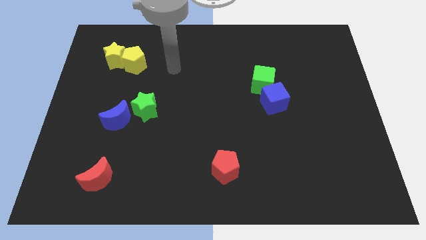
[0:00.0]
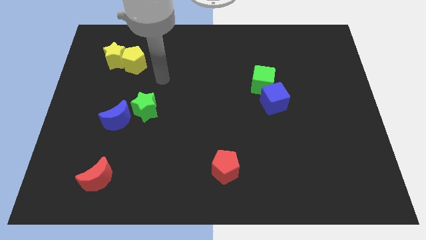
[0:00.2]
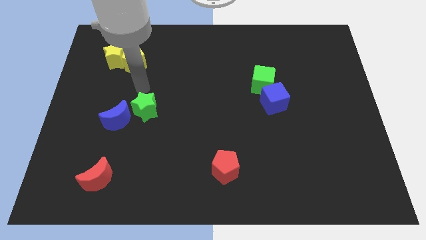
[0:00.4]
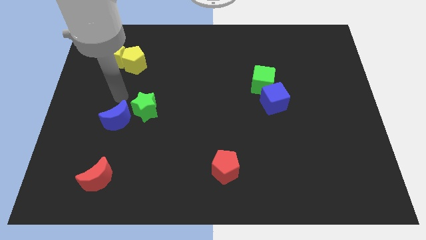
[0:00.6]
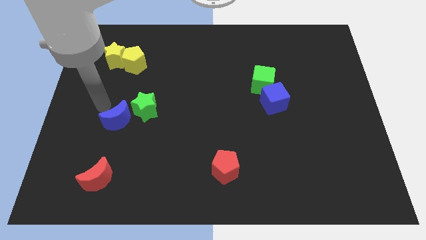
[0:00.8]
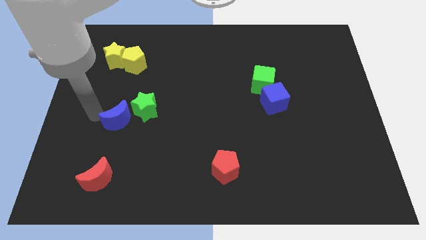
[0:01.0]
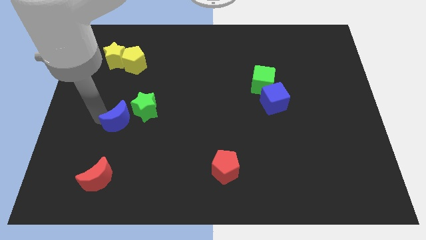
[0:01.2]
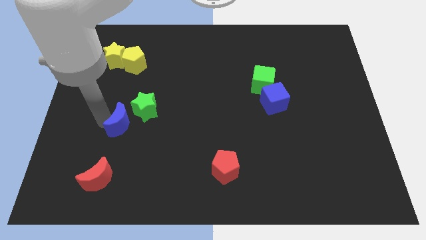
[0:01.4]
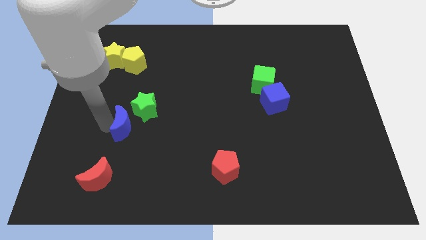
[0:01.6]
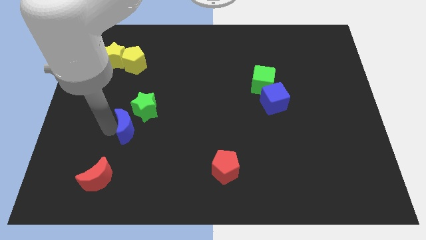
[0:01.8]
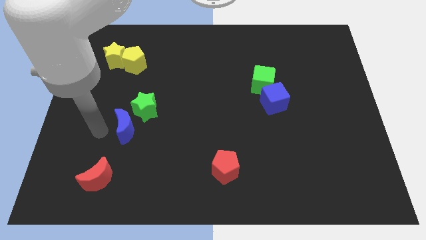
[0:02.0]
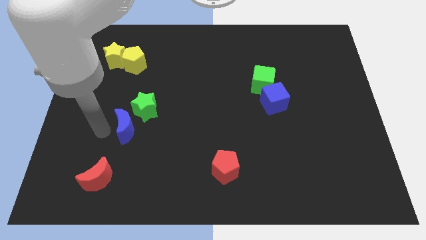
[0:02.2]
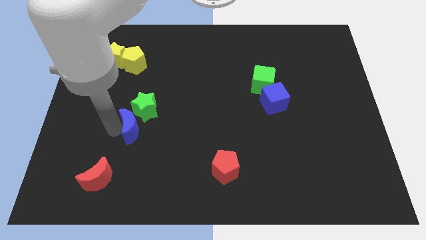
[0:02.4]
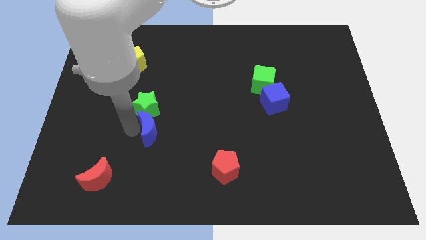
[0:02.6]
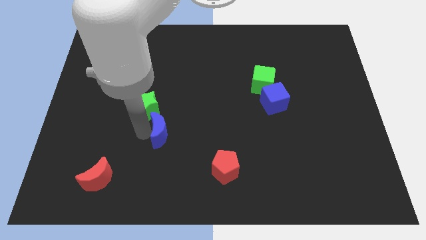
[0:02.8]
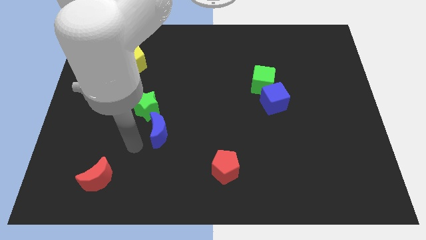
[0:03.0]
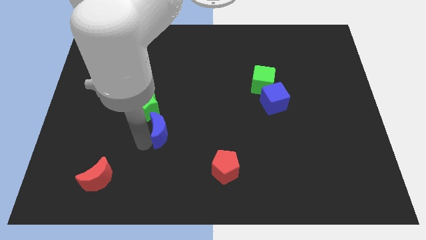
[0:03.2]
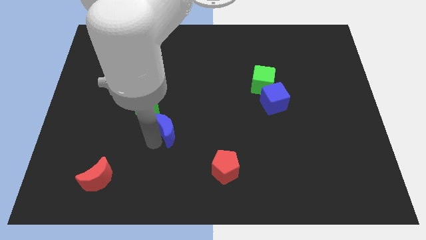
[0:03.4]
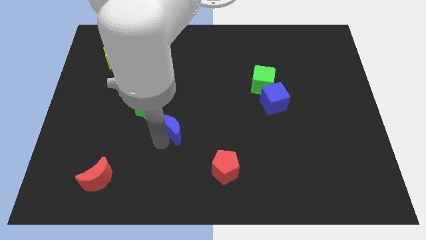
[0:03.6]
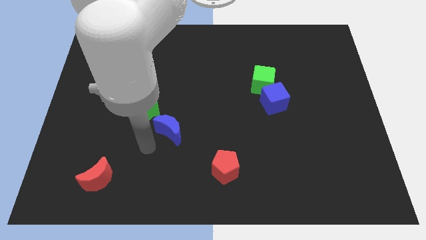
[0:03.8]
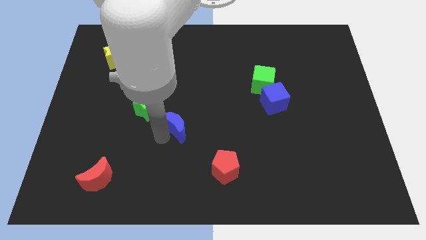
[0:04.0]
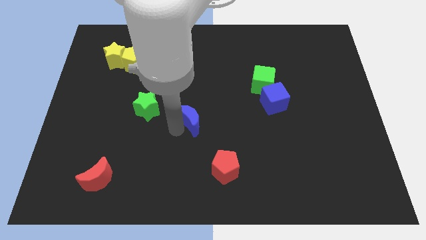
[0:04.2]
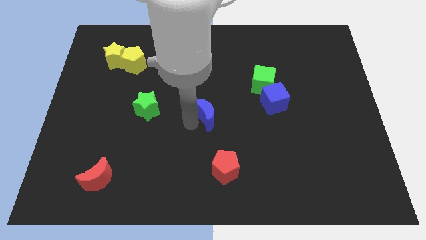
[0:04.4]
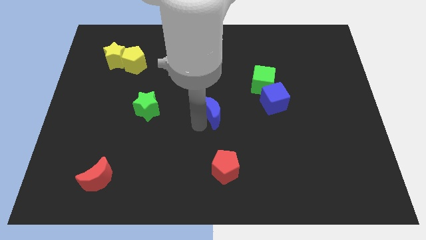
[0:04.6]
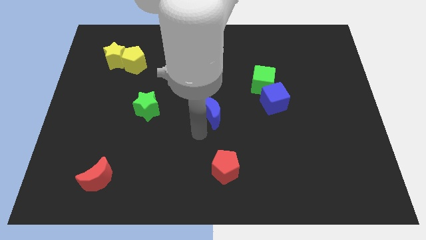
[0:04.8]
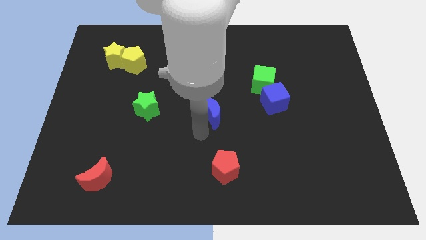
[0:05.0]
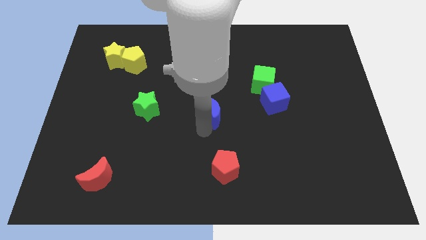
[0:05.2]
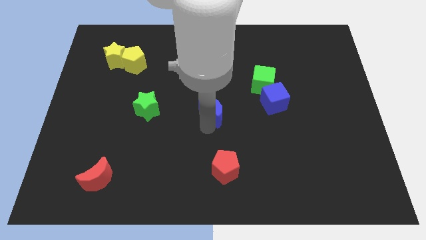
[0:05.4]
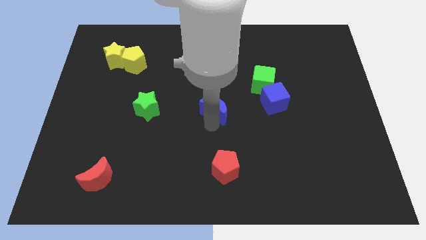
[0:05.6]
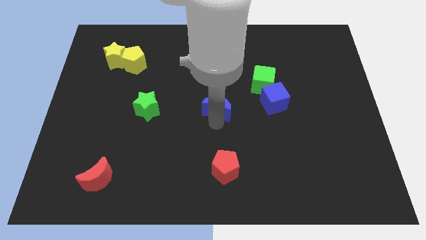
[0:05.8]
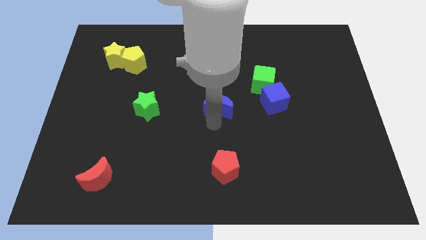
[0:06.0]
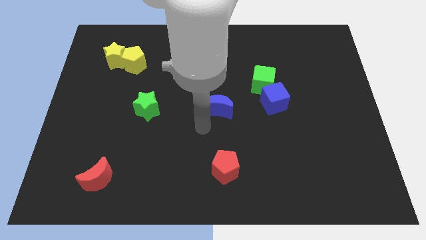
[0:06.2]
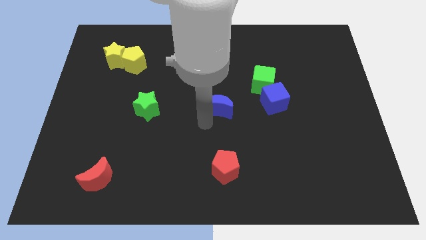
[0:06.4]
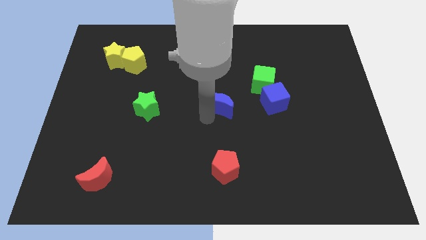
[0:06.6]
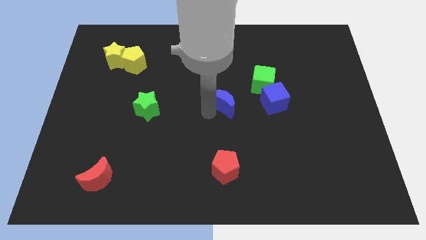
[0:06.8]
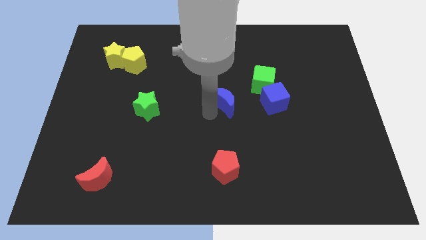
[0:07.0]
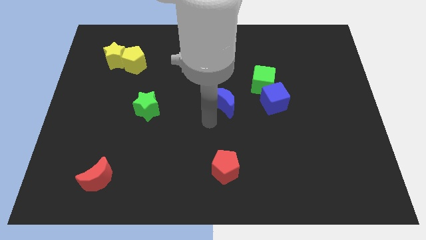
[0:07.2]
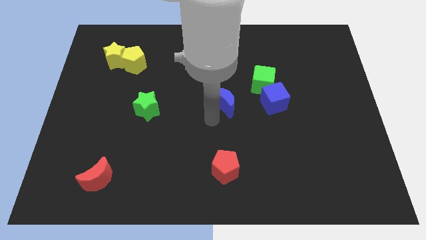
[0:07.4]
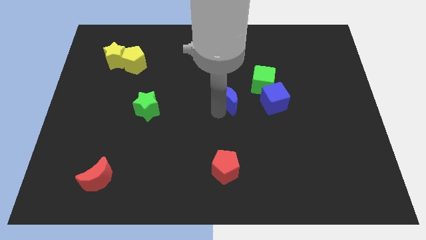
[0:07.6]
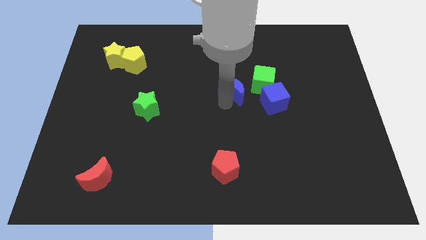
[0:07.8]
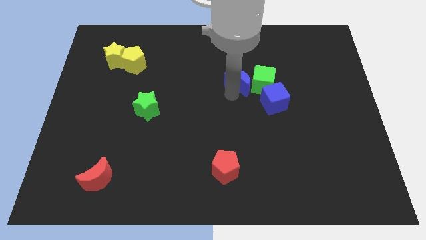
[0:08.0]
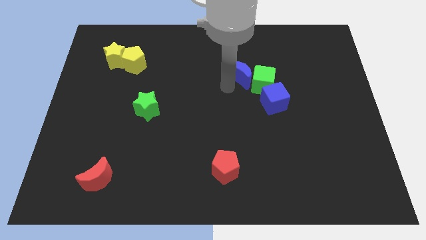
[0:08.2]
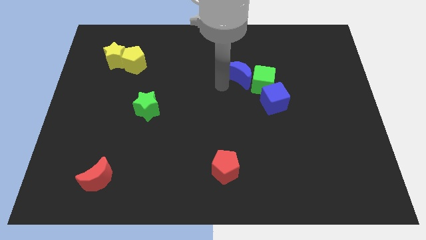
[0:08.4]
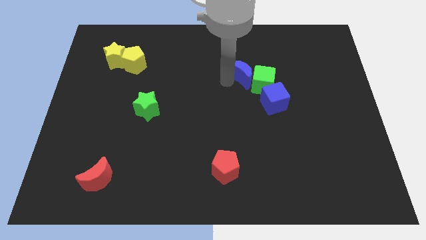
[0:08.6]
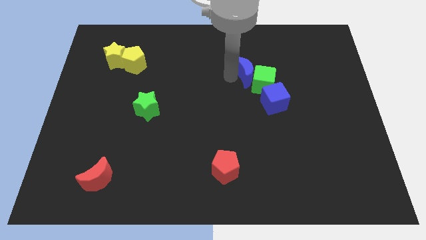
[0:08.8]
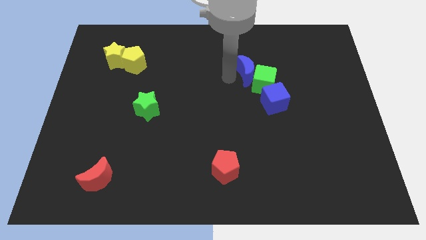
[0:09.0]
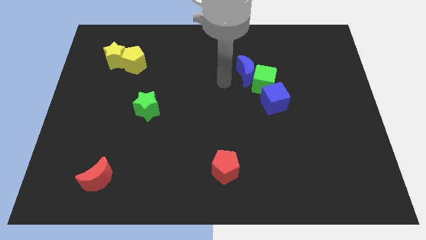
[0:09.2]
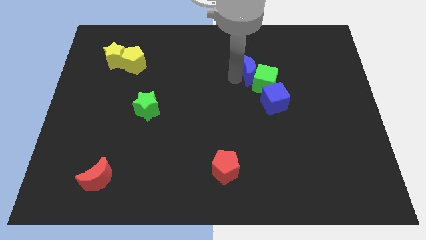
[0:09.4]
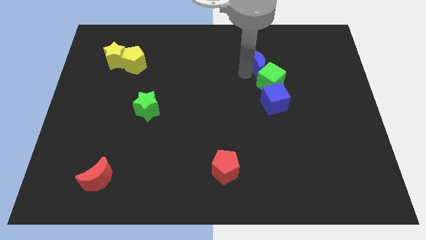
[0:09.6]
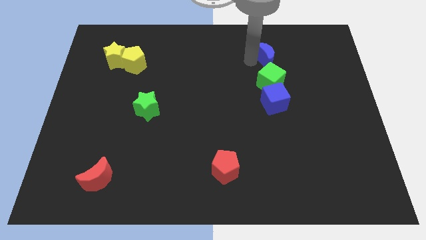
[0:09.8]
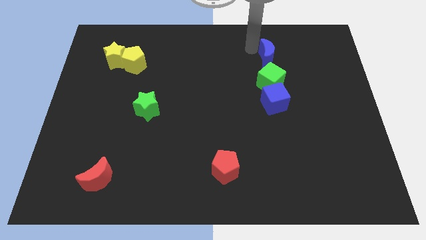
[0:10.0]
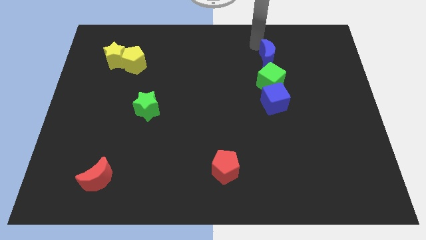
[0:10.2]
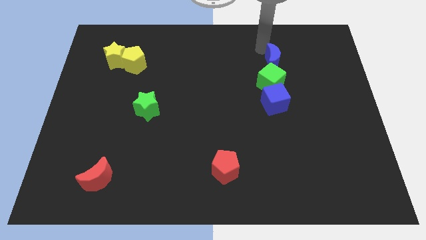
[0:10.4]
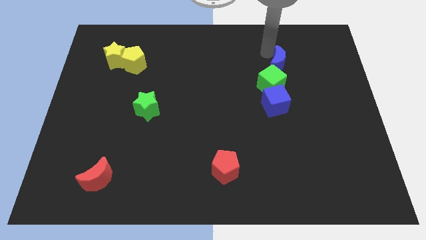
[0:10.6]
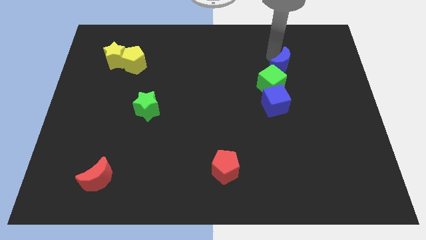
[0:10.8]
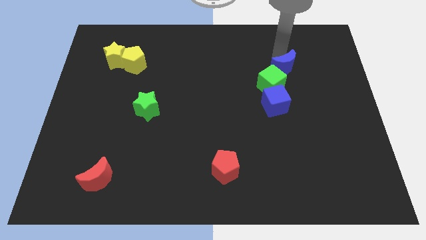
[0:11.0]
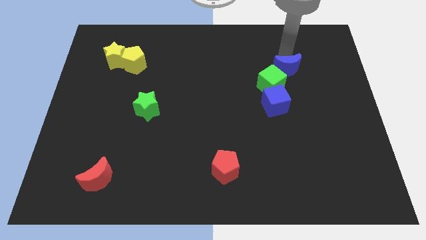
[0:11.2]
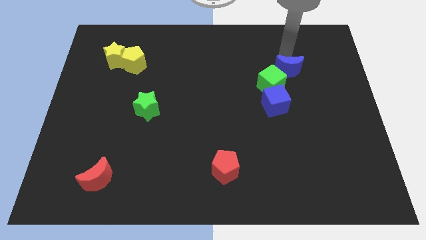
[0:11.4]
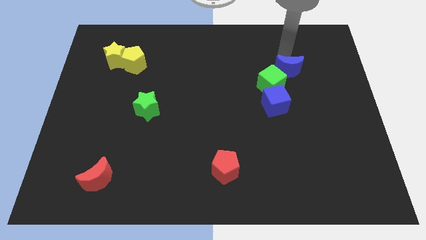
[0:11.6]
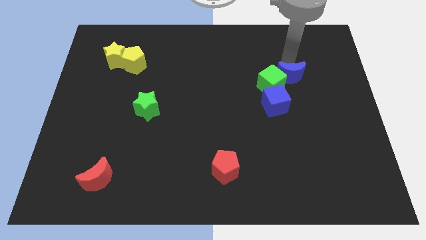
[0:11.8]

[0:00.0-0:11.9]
slide the blue moon to the top right of the blue cube
